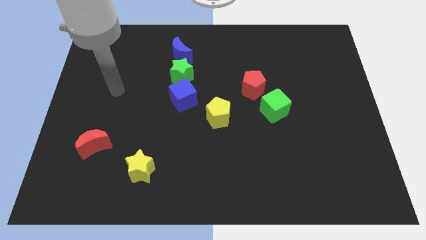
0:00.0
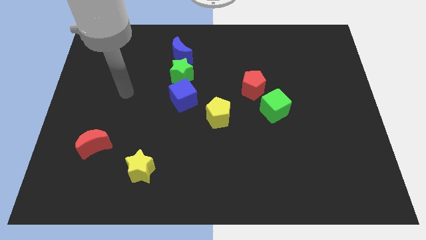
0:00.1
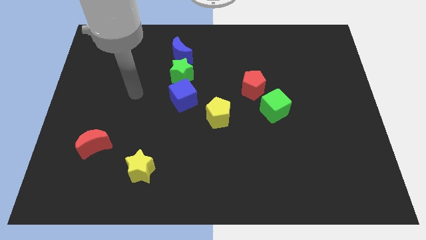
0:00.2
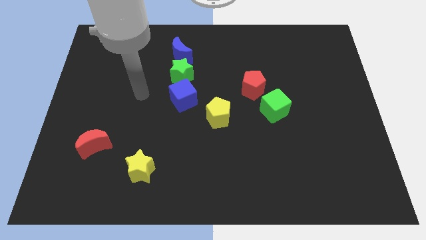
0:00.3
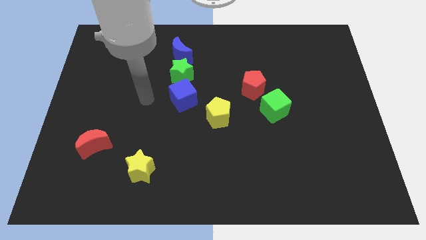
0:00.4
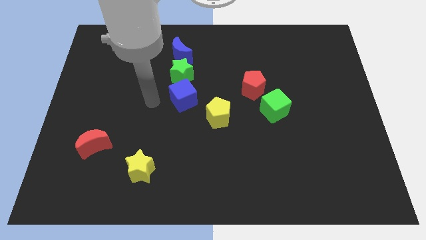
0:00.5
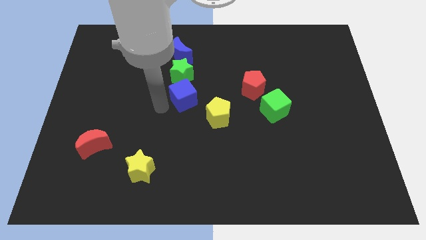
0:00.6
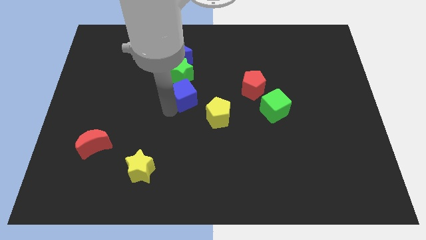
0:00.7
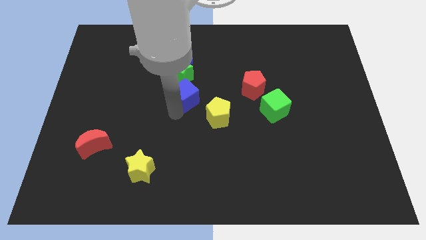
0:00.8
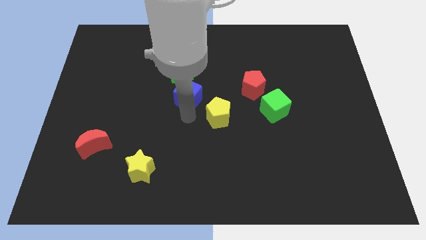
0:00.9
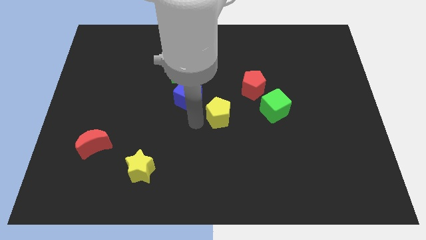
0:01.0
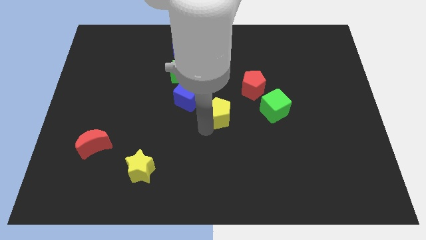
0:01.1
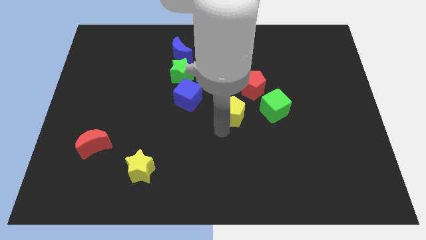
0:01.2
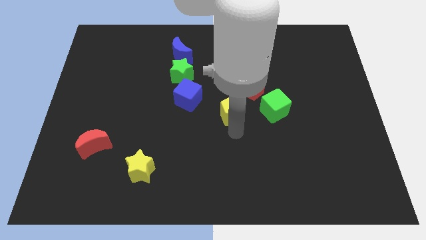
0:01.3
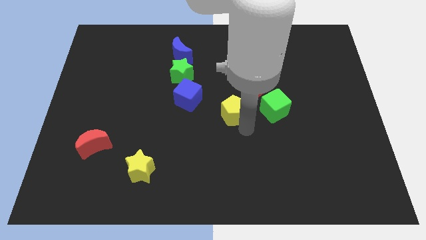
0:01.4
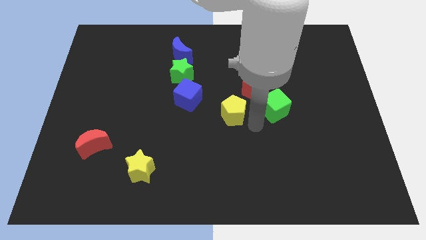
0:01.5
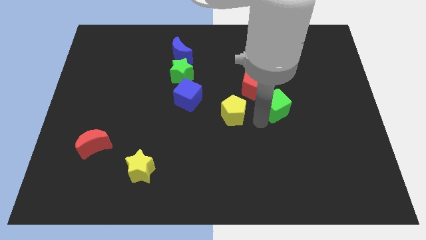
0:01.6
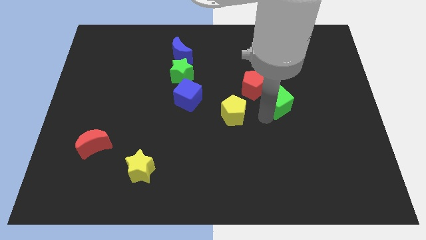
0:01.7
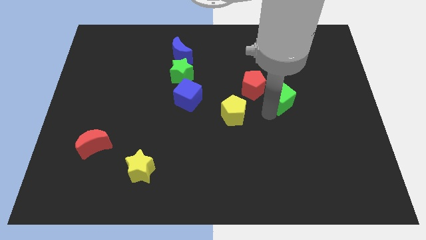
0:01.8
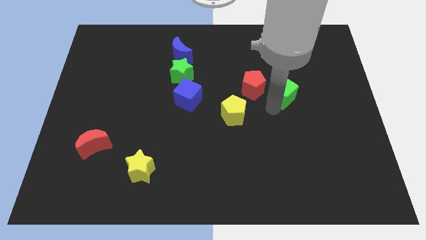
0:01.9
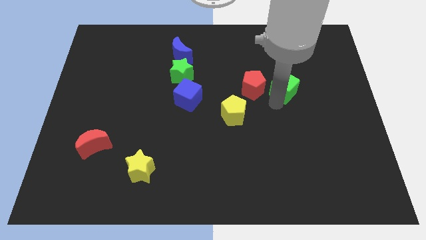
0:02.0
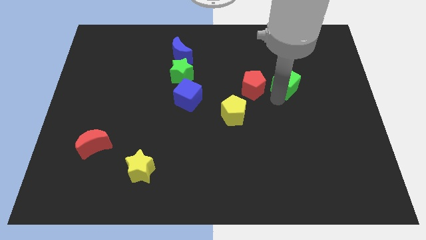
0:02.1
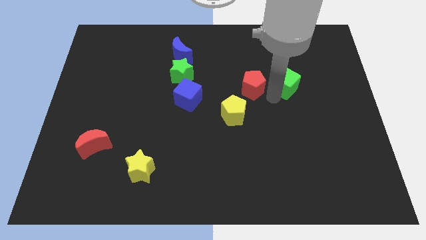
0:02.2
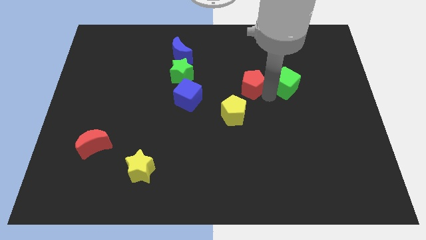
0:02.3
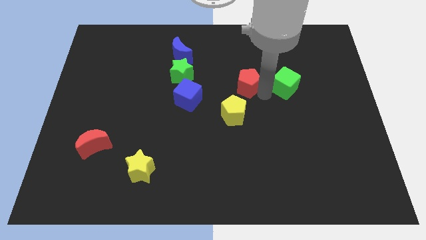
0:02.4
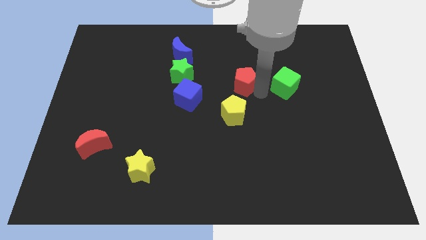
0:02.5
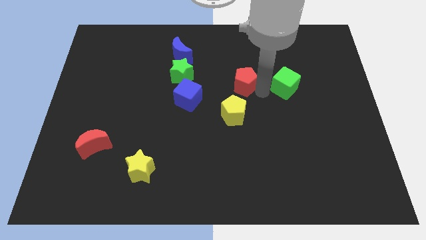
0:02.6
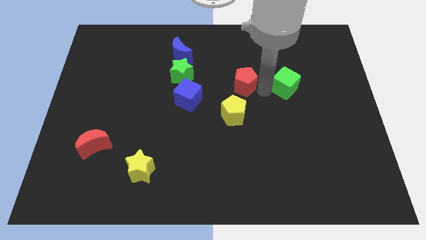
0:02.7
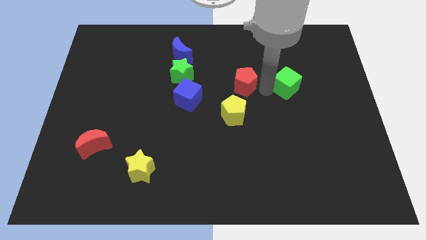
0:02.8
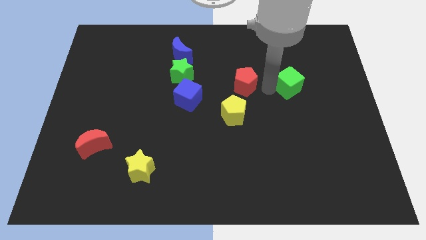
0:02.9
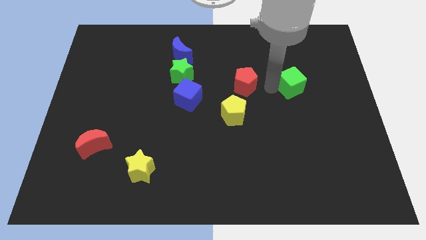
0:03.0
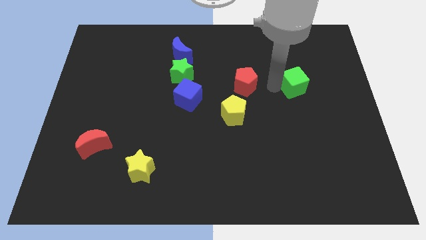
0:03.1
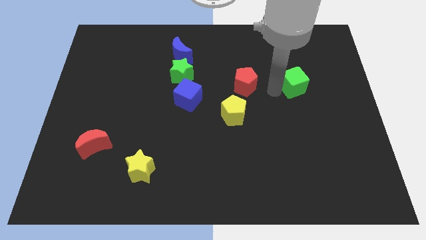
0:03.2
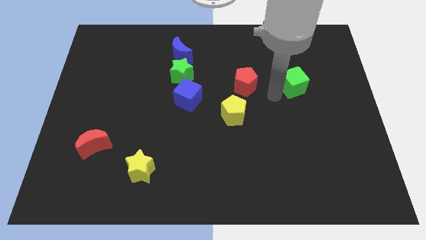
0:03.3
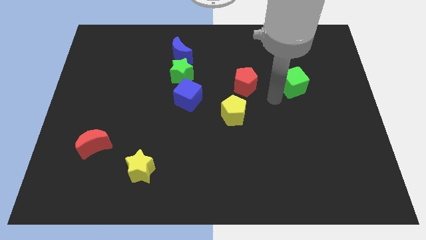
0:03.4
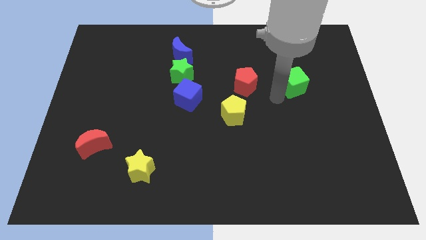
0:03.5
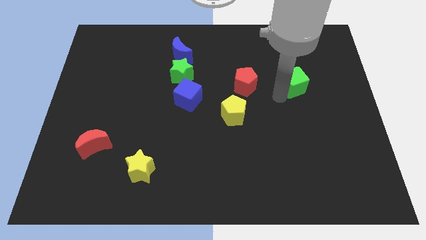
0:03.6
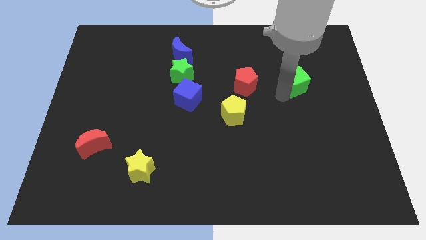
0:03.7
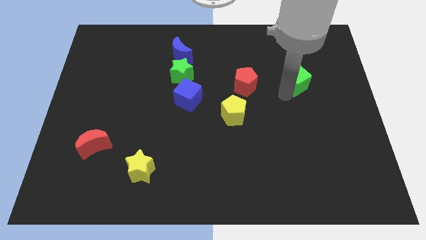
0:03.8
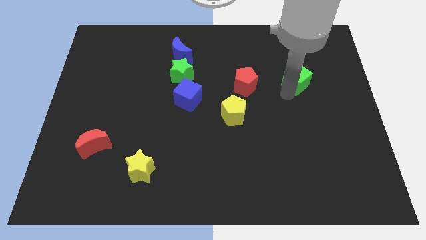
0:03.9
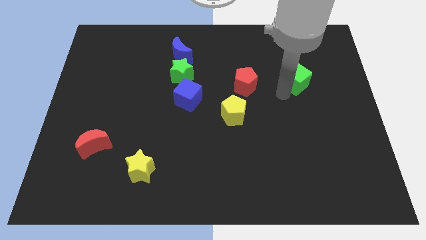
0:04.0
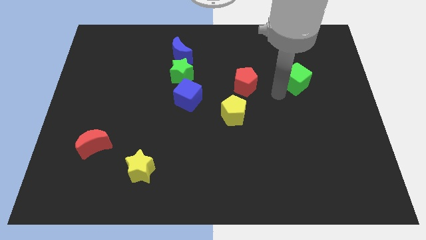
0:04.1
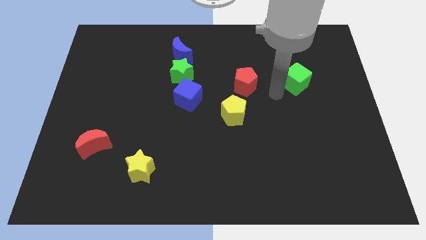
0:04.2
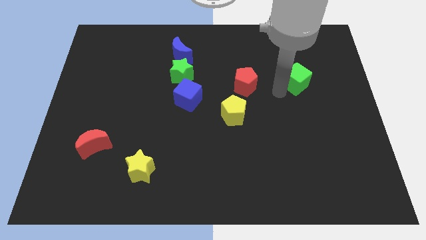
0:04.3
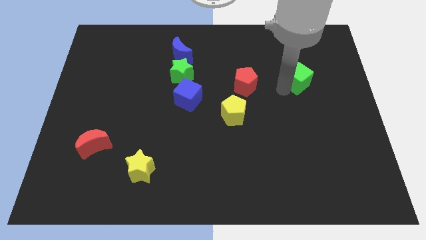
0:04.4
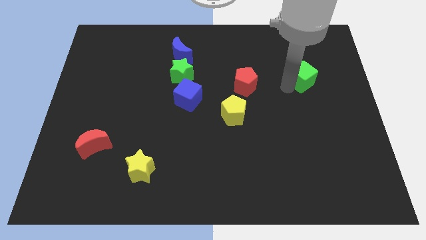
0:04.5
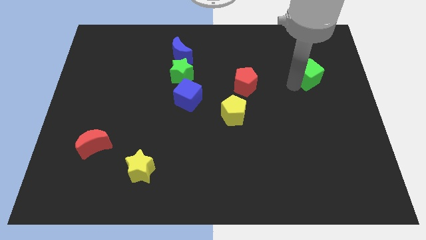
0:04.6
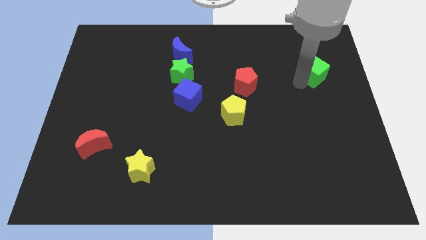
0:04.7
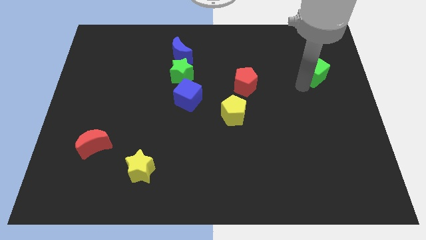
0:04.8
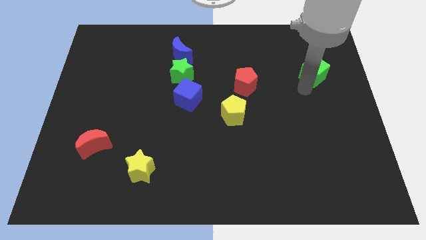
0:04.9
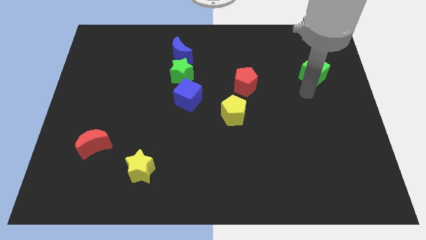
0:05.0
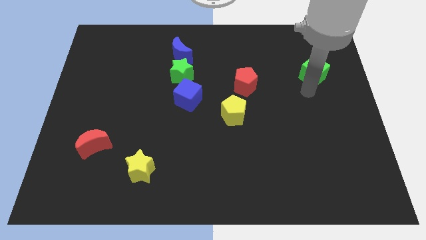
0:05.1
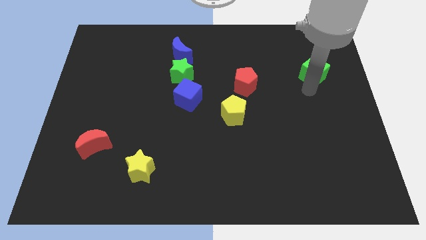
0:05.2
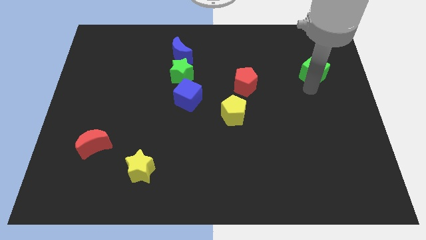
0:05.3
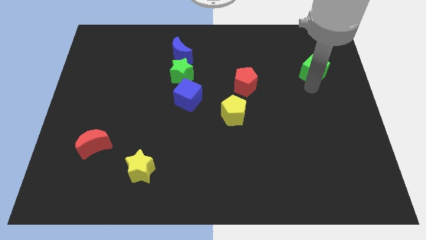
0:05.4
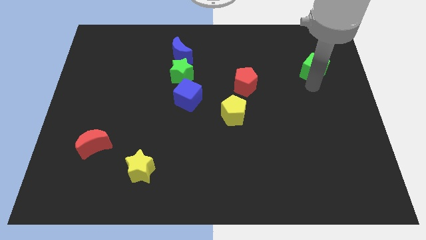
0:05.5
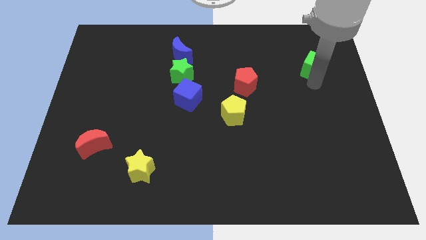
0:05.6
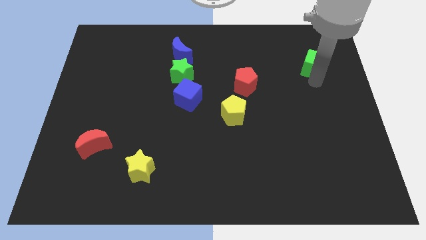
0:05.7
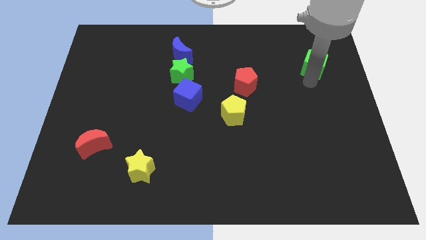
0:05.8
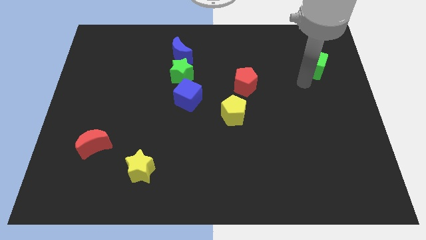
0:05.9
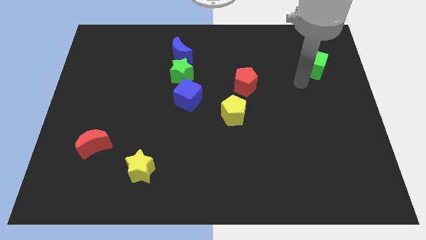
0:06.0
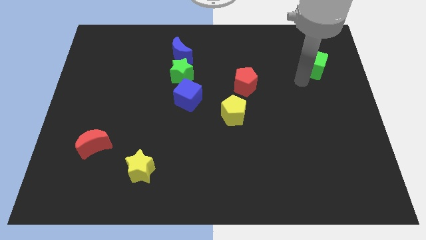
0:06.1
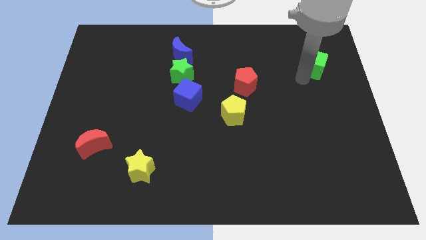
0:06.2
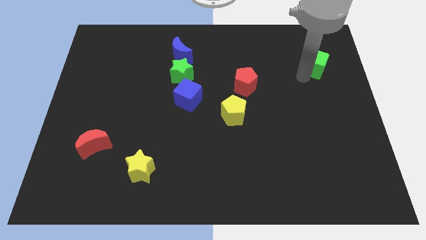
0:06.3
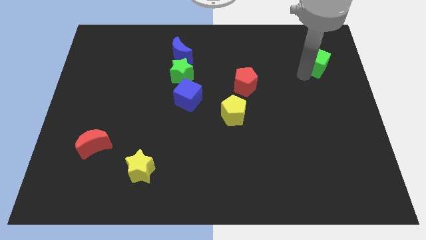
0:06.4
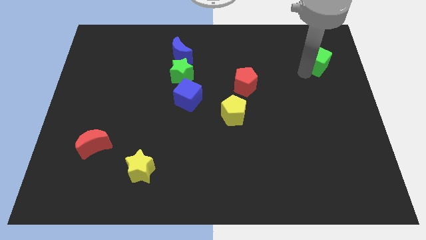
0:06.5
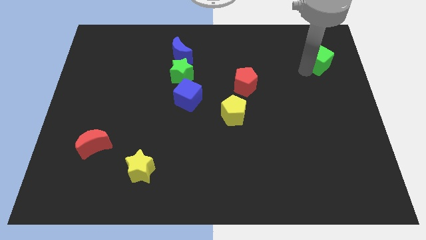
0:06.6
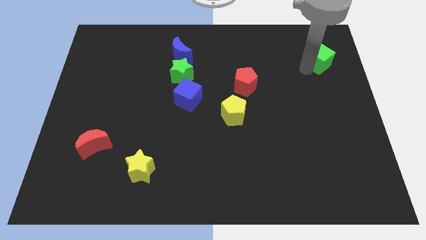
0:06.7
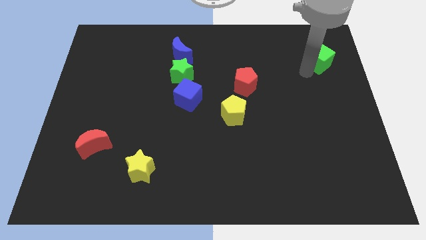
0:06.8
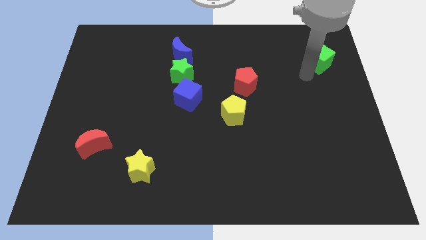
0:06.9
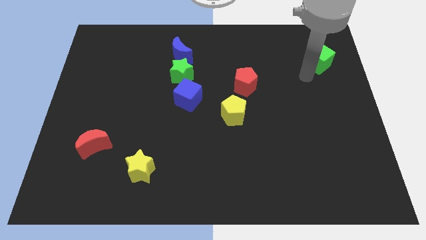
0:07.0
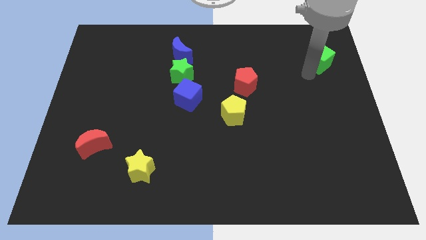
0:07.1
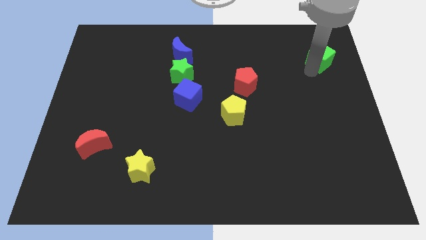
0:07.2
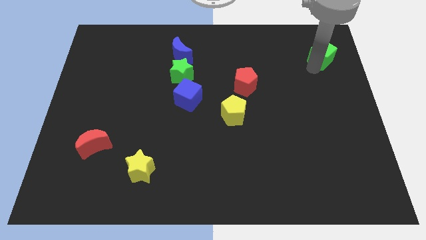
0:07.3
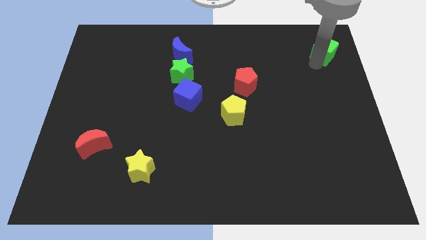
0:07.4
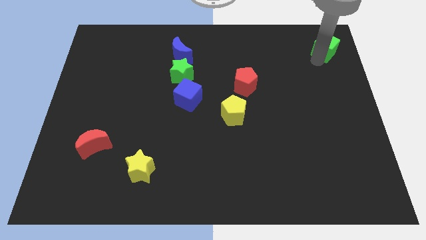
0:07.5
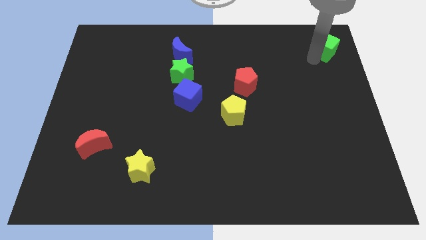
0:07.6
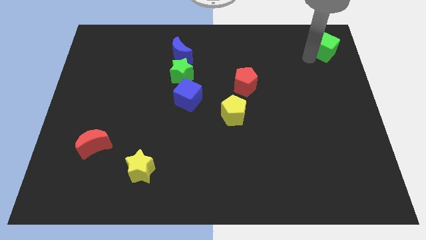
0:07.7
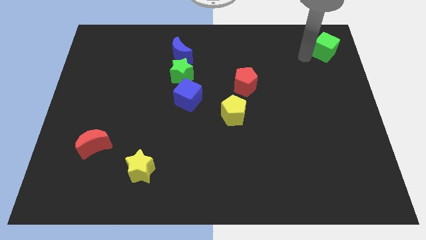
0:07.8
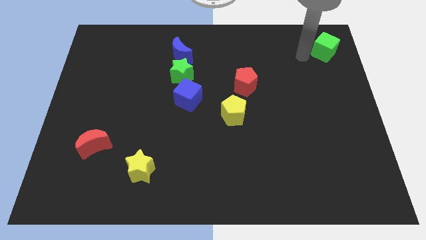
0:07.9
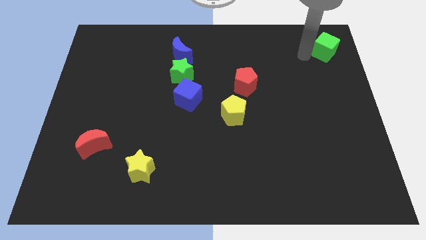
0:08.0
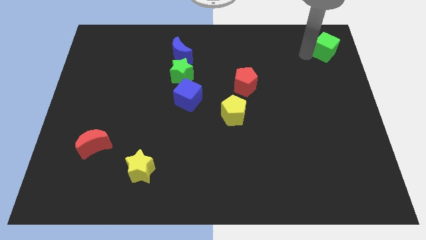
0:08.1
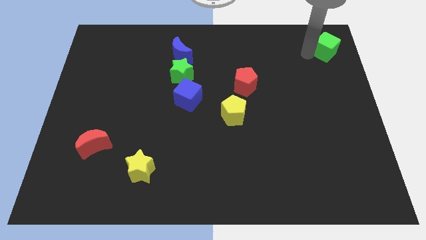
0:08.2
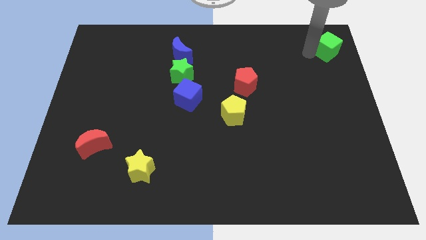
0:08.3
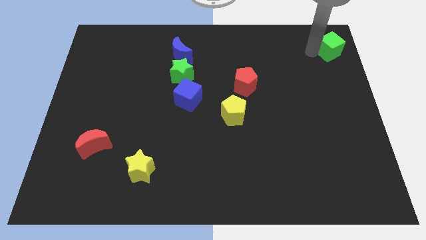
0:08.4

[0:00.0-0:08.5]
push the green cube to the upper right corner
